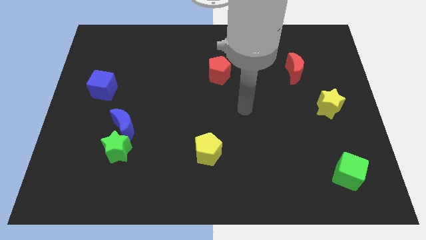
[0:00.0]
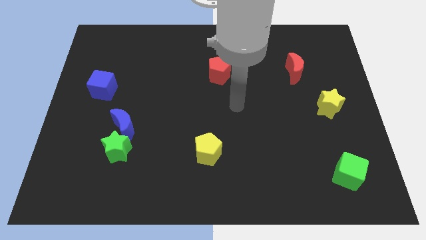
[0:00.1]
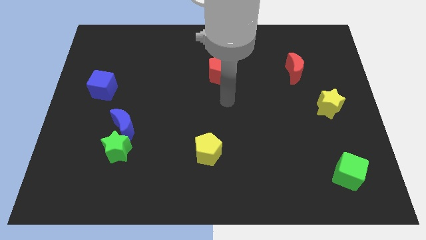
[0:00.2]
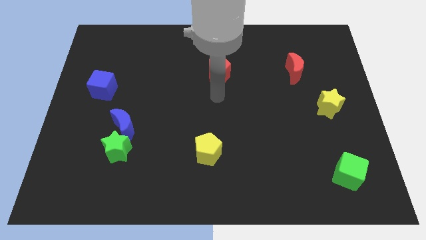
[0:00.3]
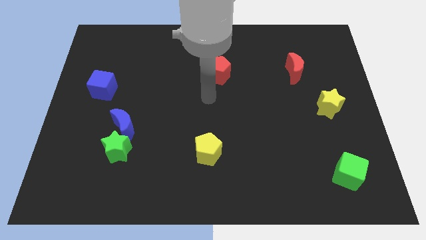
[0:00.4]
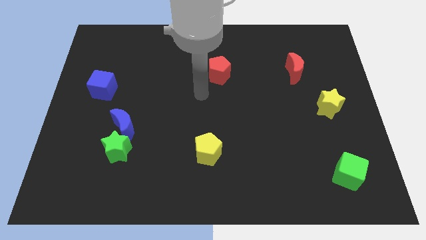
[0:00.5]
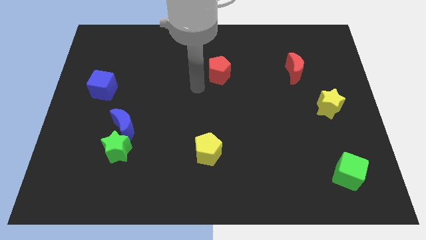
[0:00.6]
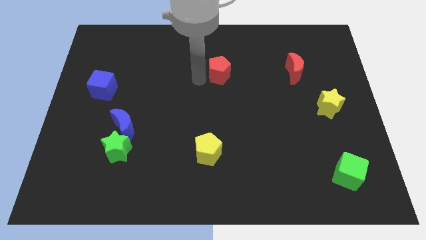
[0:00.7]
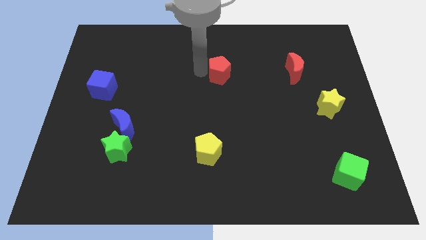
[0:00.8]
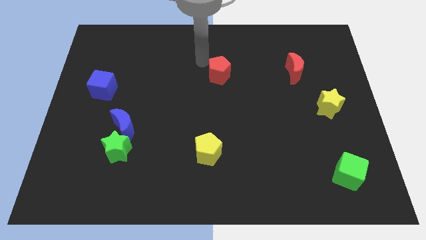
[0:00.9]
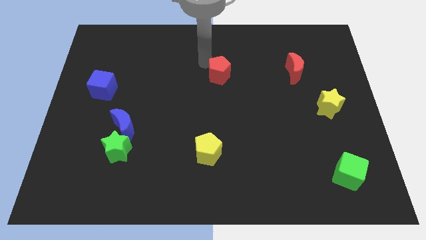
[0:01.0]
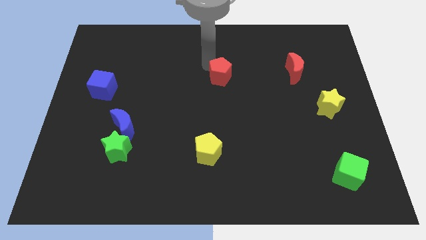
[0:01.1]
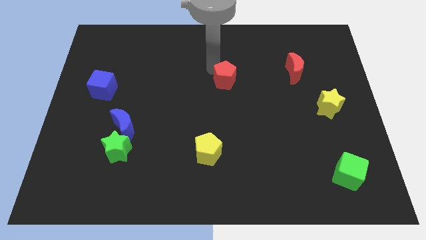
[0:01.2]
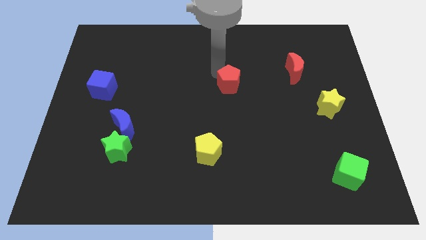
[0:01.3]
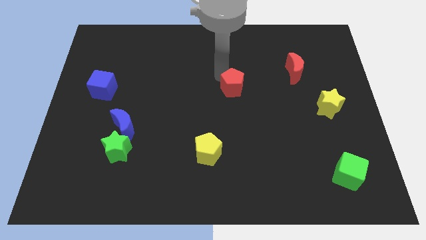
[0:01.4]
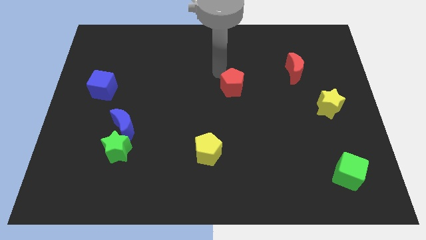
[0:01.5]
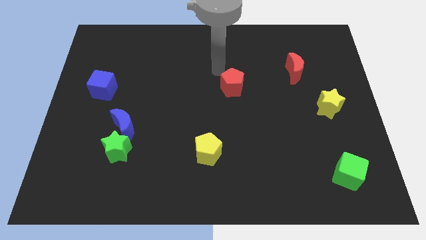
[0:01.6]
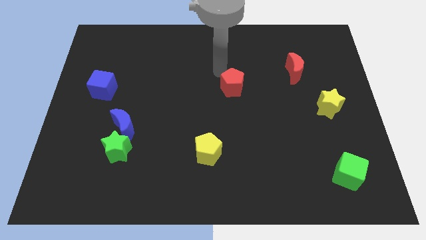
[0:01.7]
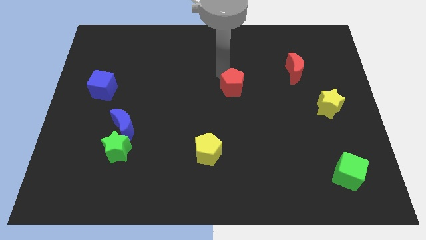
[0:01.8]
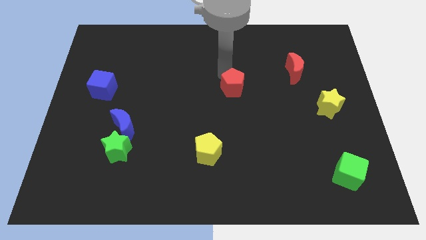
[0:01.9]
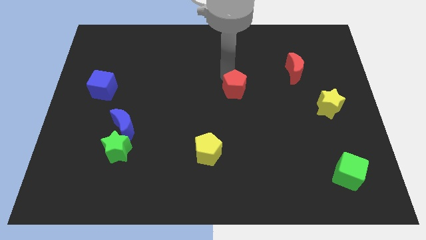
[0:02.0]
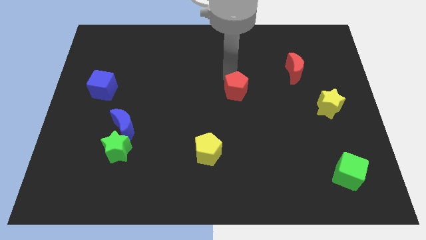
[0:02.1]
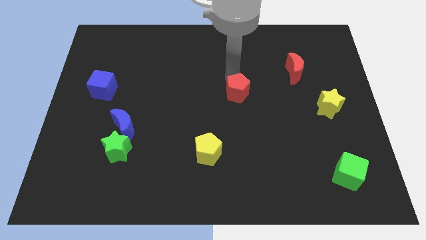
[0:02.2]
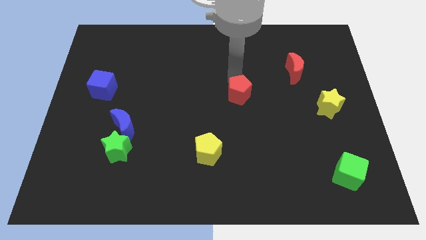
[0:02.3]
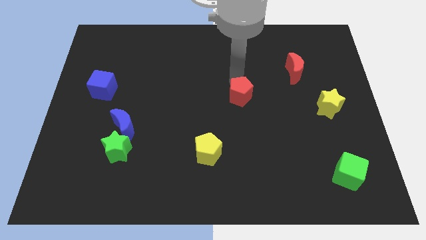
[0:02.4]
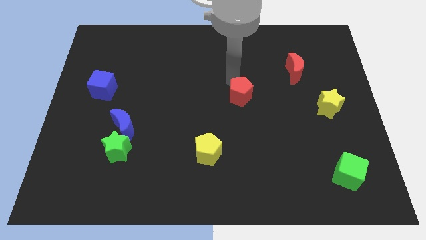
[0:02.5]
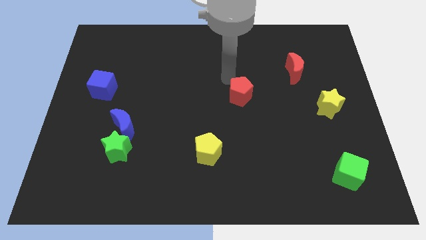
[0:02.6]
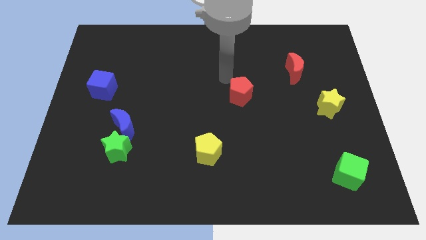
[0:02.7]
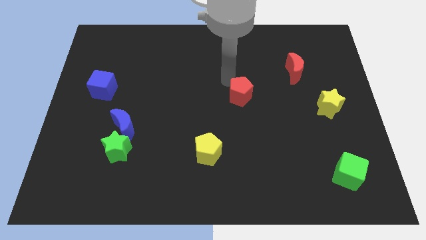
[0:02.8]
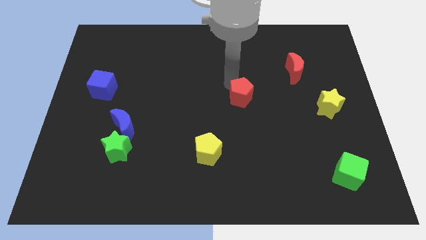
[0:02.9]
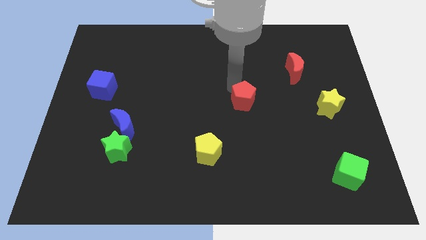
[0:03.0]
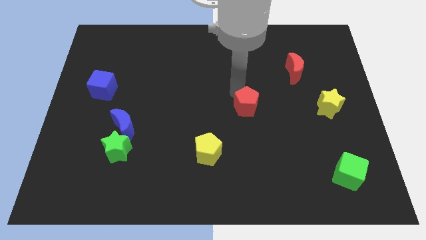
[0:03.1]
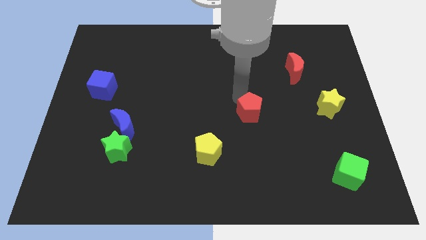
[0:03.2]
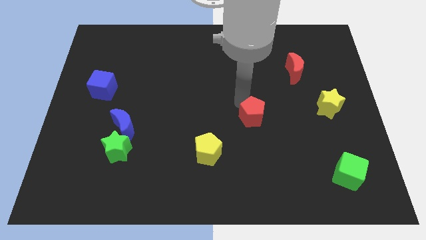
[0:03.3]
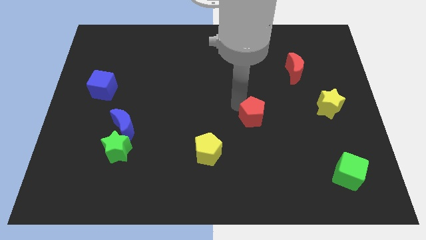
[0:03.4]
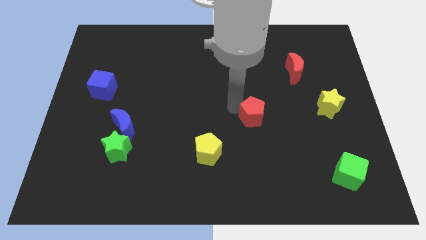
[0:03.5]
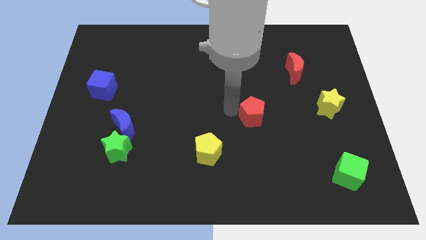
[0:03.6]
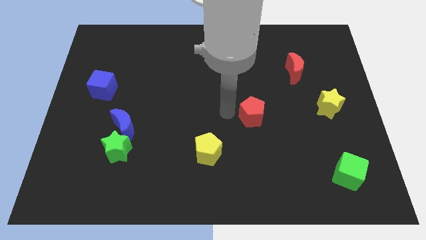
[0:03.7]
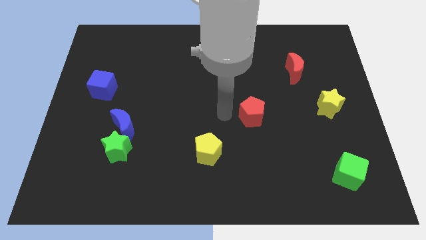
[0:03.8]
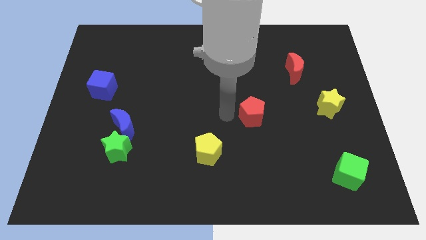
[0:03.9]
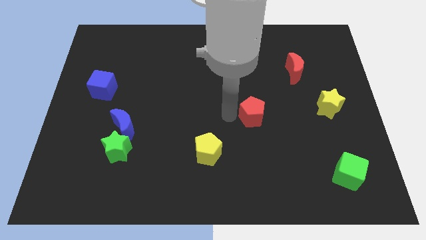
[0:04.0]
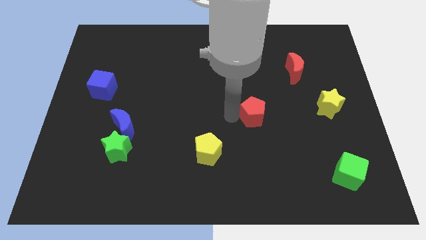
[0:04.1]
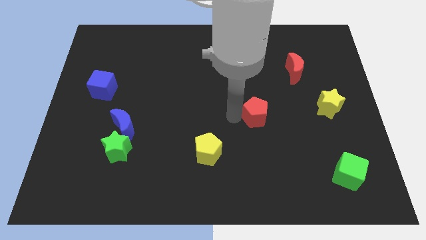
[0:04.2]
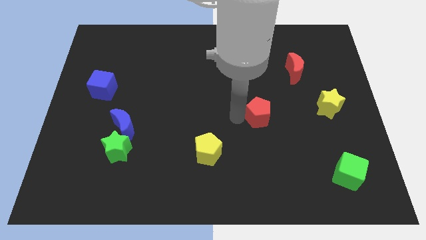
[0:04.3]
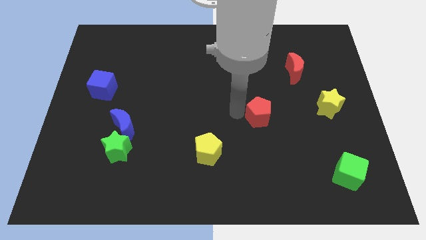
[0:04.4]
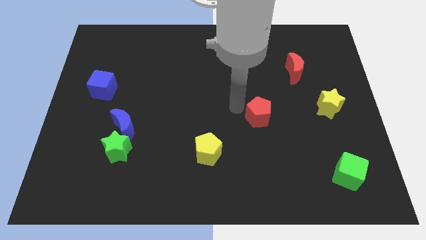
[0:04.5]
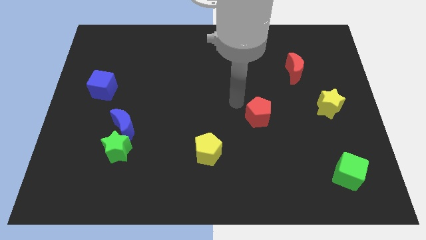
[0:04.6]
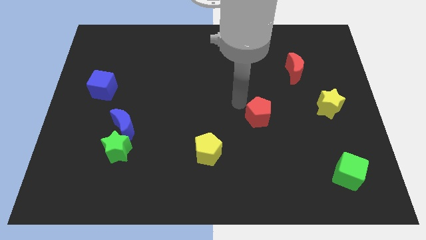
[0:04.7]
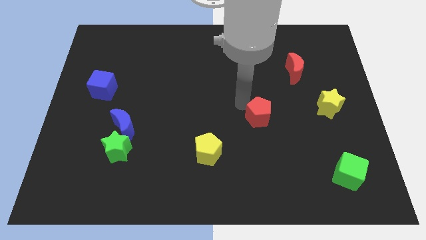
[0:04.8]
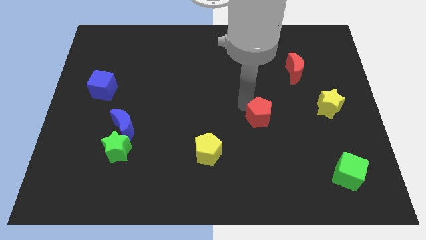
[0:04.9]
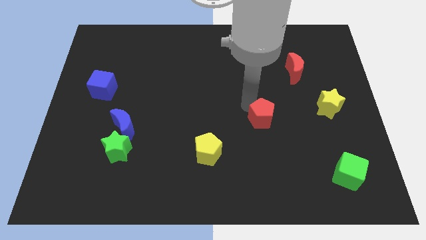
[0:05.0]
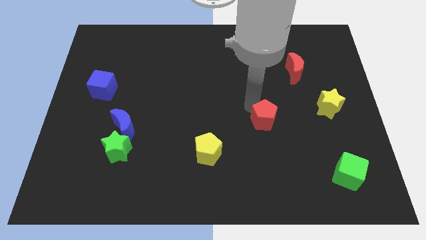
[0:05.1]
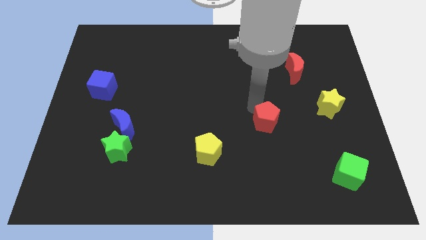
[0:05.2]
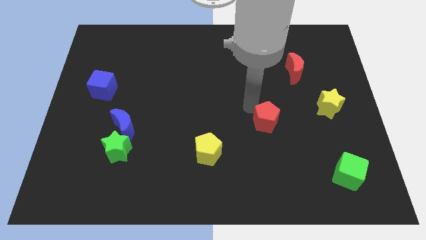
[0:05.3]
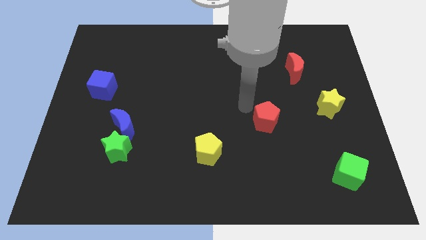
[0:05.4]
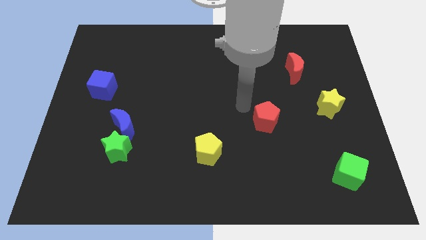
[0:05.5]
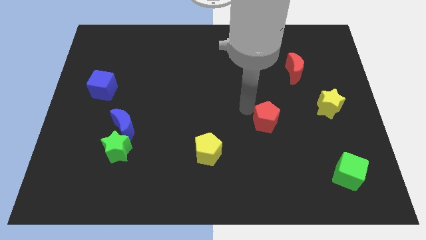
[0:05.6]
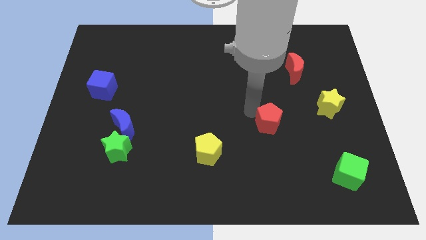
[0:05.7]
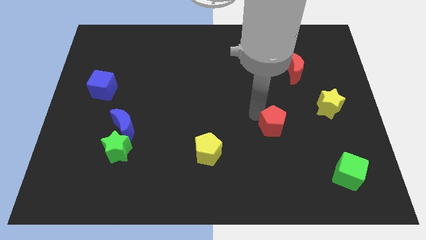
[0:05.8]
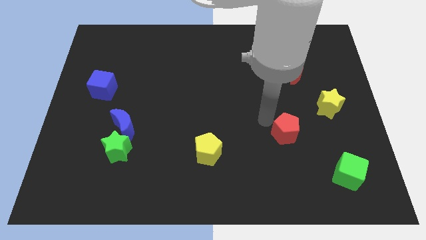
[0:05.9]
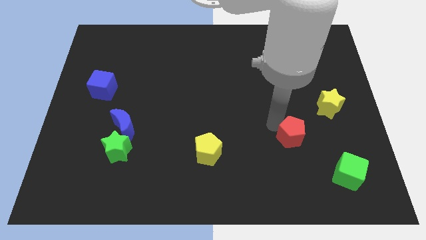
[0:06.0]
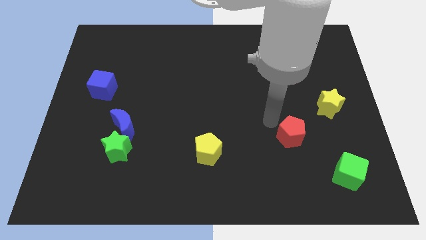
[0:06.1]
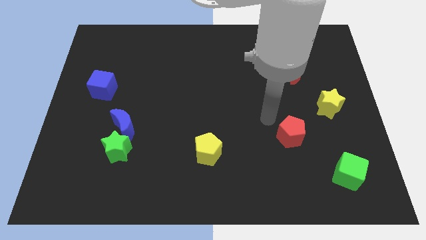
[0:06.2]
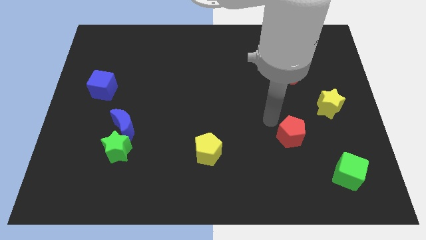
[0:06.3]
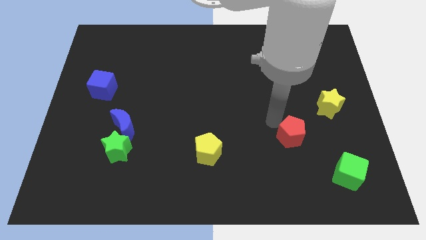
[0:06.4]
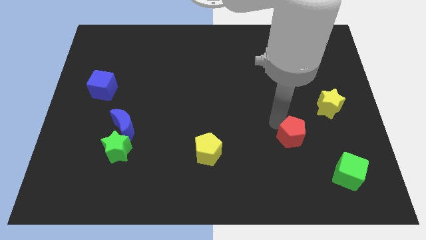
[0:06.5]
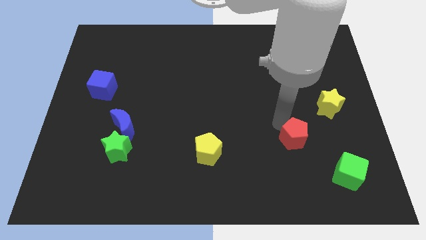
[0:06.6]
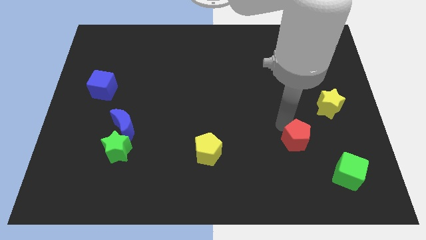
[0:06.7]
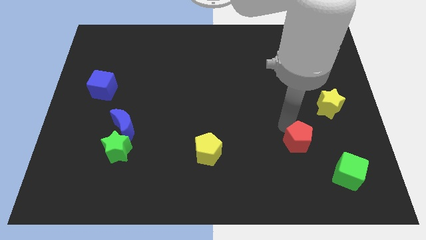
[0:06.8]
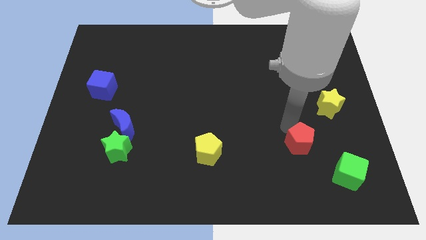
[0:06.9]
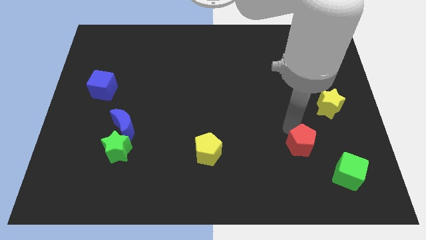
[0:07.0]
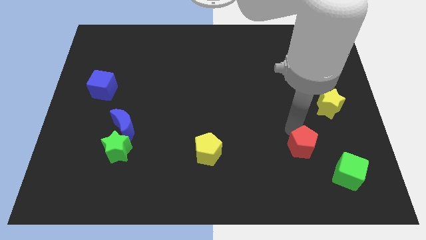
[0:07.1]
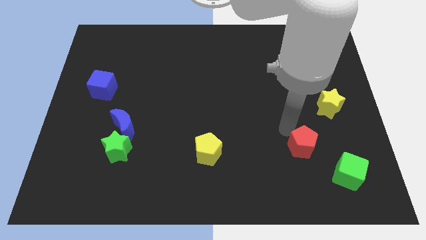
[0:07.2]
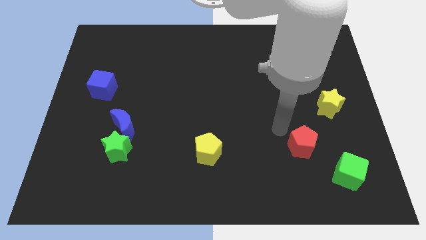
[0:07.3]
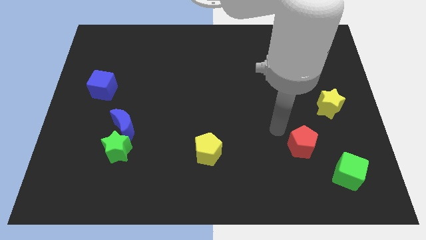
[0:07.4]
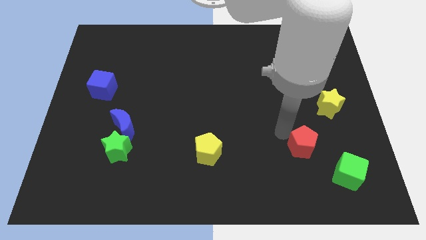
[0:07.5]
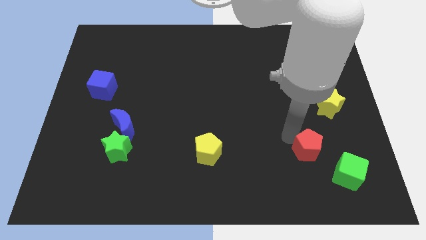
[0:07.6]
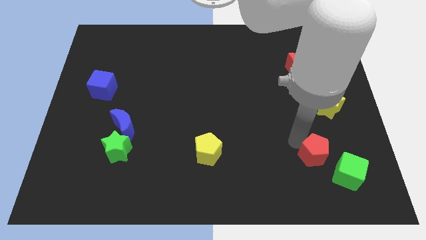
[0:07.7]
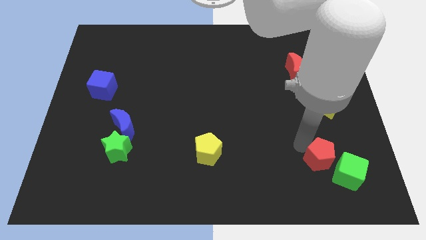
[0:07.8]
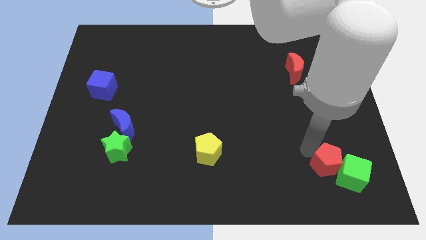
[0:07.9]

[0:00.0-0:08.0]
move the red pentagon close to the green cube
